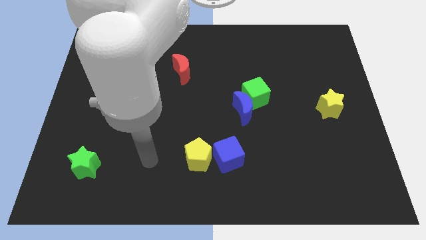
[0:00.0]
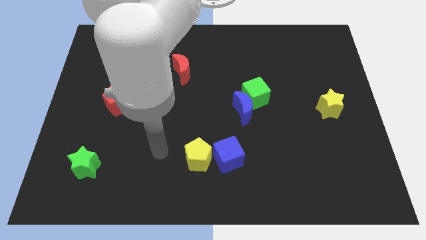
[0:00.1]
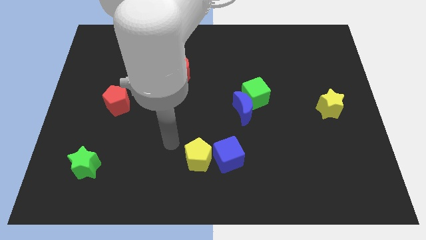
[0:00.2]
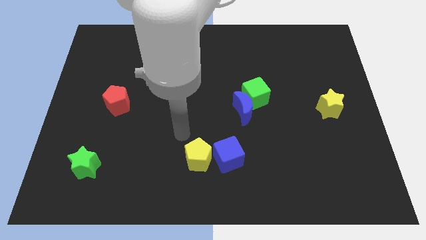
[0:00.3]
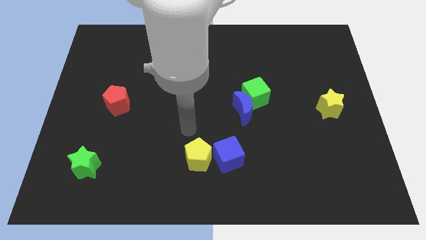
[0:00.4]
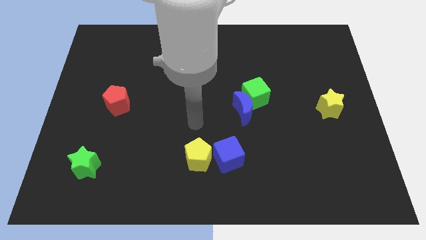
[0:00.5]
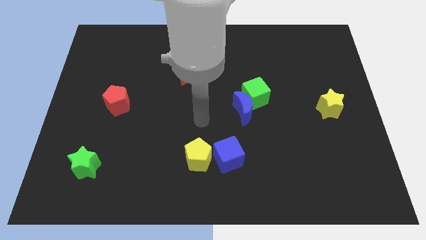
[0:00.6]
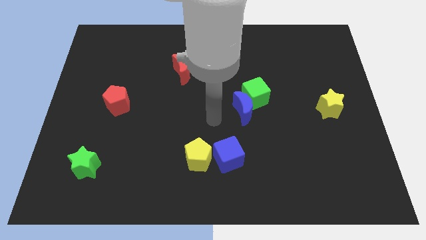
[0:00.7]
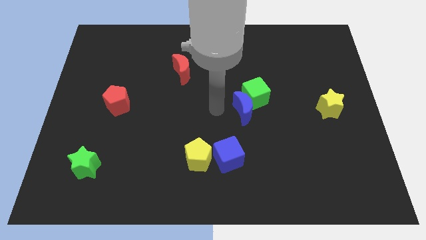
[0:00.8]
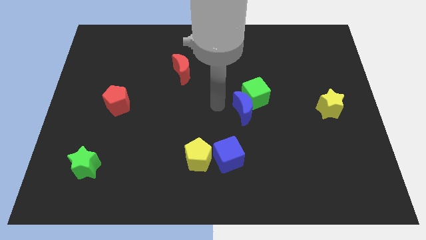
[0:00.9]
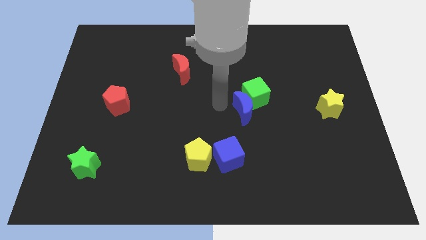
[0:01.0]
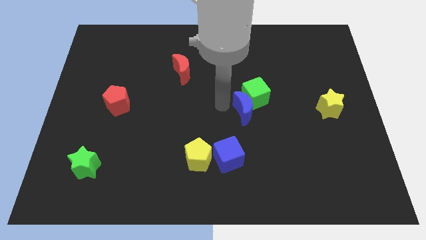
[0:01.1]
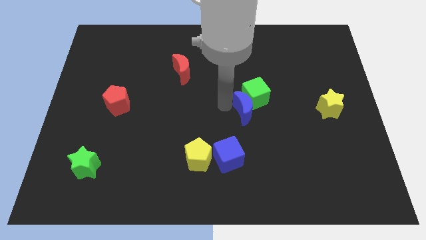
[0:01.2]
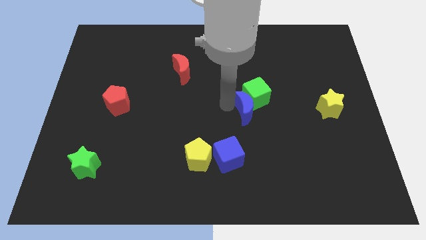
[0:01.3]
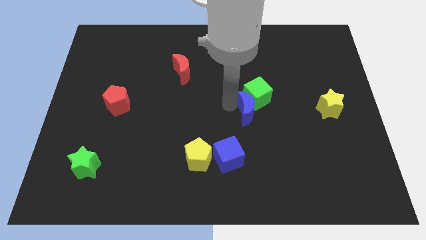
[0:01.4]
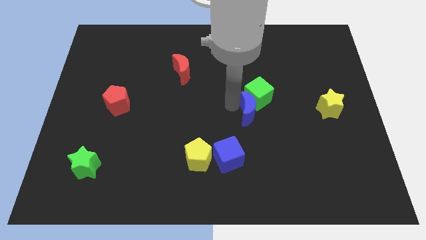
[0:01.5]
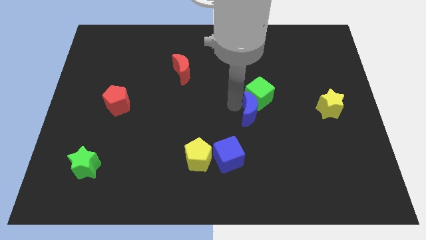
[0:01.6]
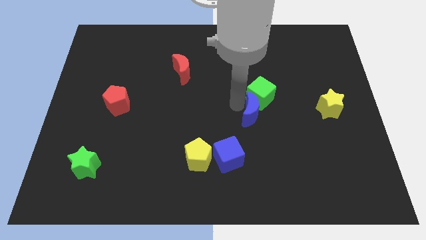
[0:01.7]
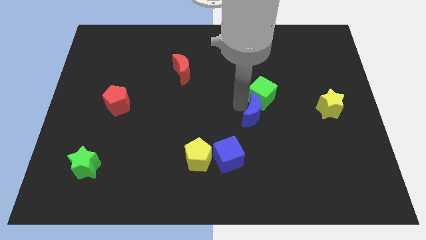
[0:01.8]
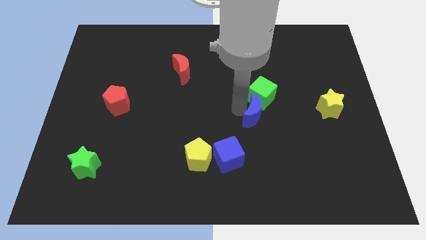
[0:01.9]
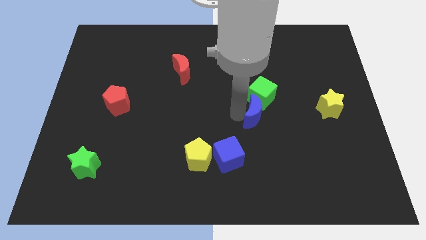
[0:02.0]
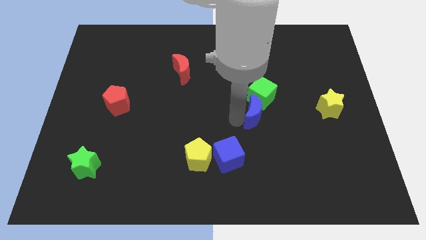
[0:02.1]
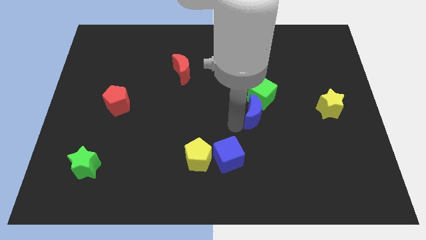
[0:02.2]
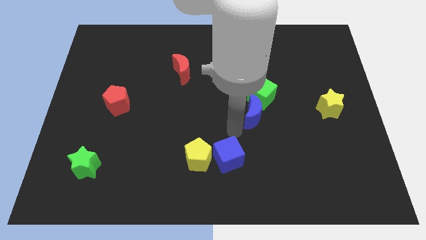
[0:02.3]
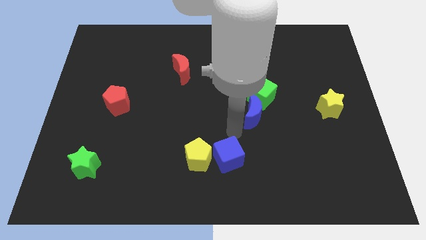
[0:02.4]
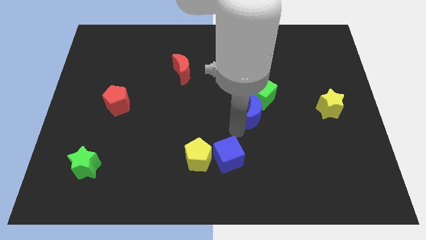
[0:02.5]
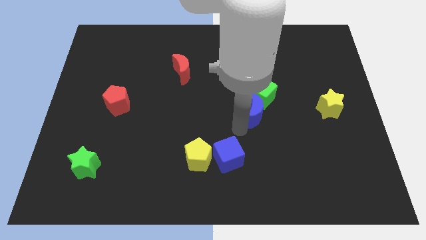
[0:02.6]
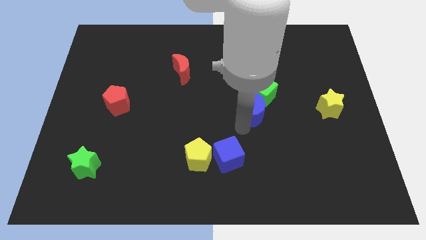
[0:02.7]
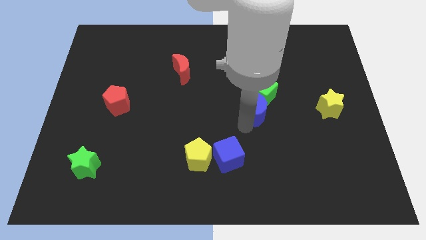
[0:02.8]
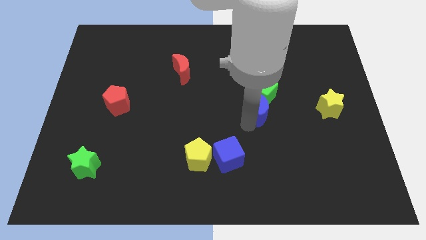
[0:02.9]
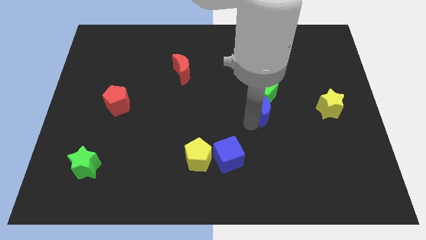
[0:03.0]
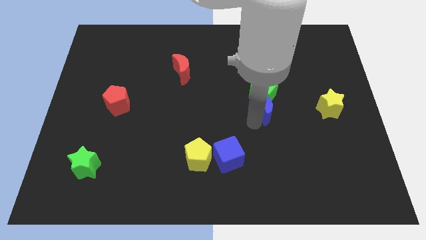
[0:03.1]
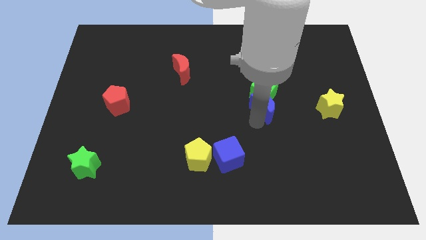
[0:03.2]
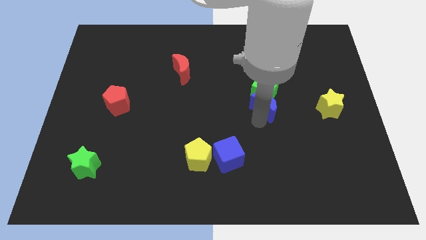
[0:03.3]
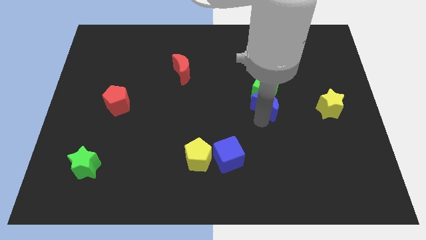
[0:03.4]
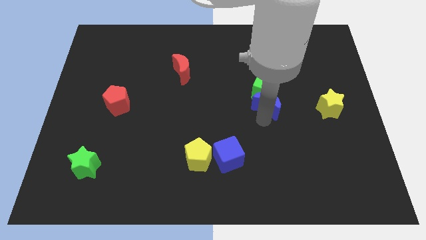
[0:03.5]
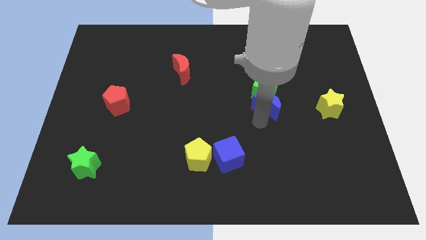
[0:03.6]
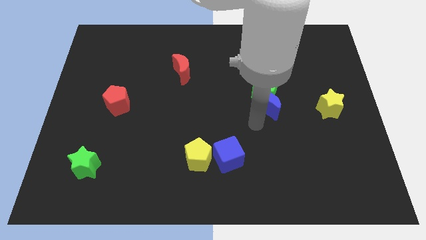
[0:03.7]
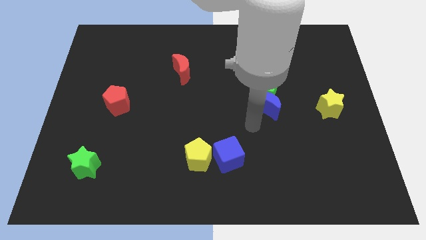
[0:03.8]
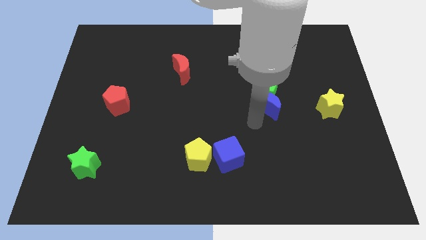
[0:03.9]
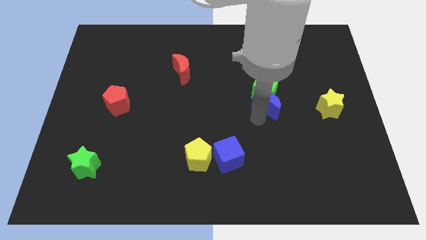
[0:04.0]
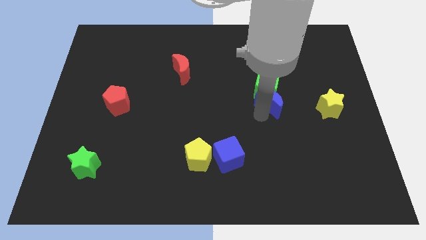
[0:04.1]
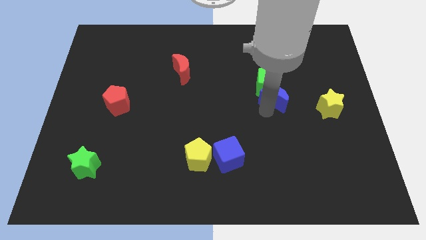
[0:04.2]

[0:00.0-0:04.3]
move the blue moon somewhat up and then right

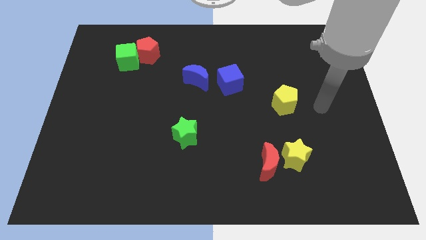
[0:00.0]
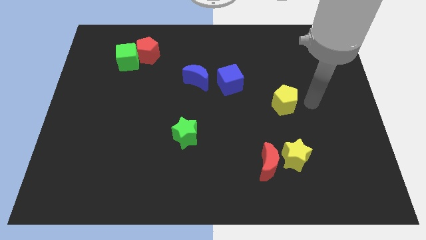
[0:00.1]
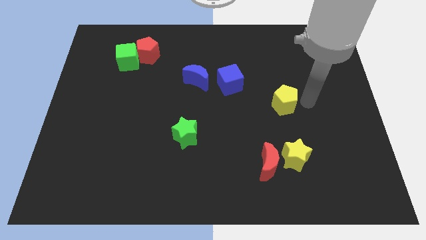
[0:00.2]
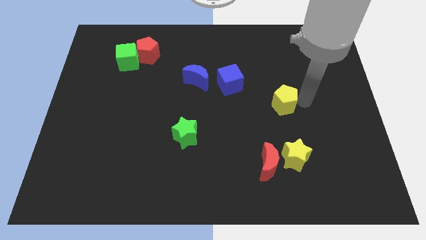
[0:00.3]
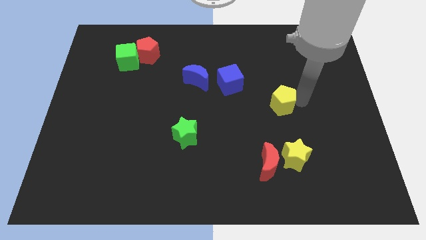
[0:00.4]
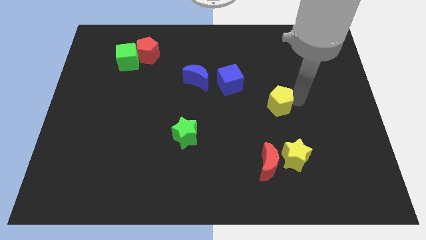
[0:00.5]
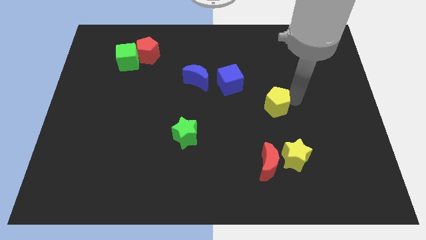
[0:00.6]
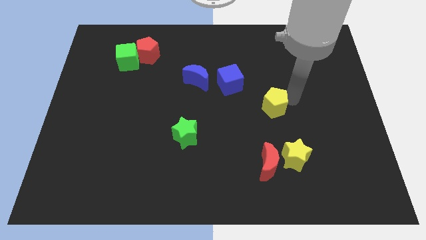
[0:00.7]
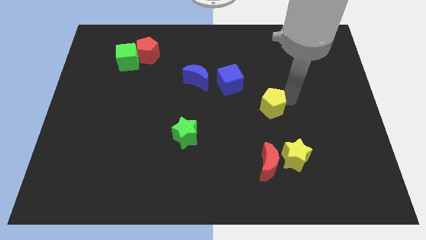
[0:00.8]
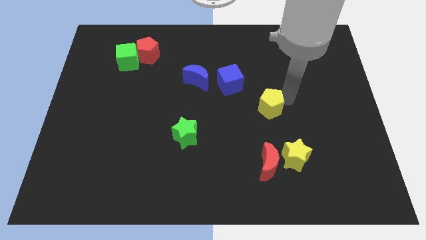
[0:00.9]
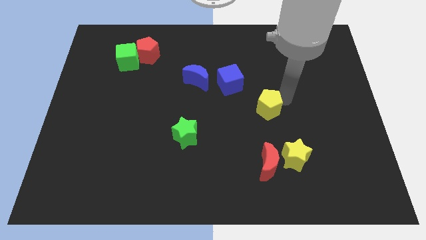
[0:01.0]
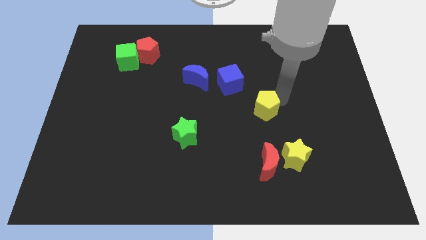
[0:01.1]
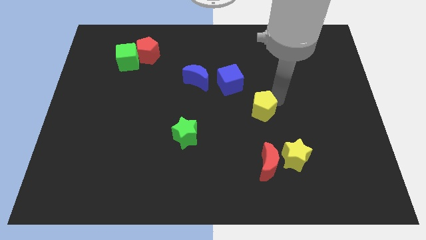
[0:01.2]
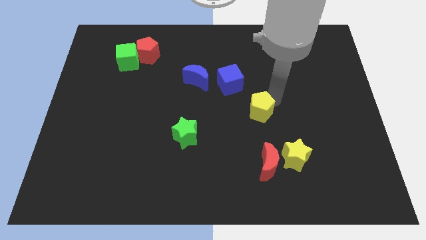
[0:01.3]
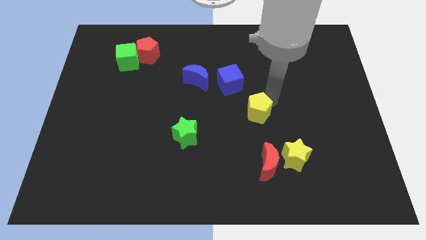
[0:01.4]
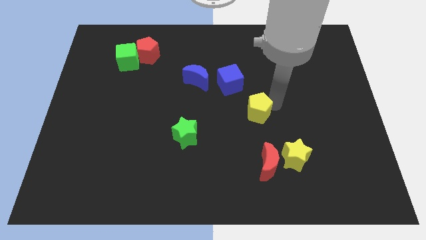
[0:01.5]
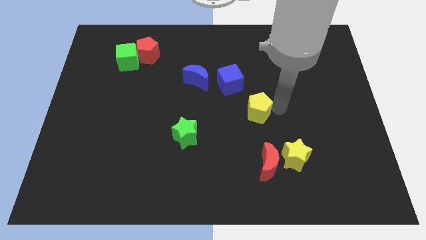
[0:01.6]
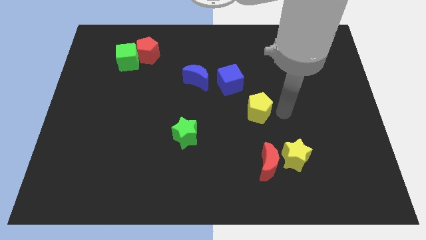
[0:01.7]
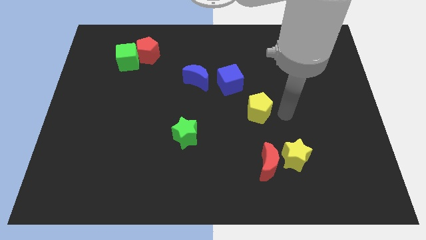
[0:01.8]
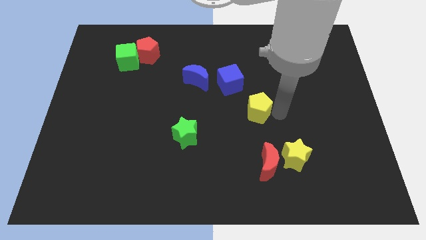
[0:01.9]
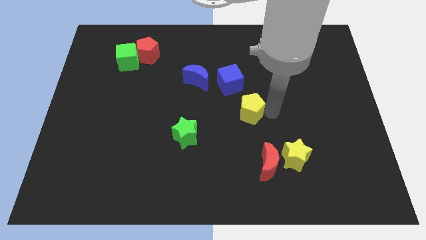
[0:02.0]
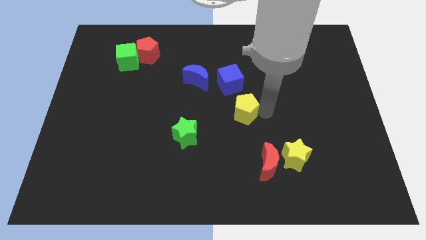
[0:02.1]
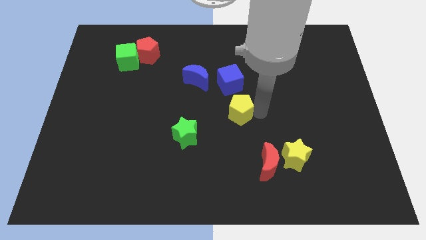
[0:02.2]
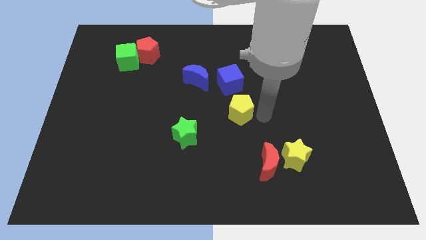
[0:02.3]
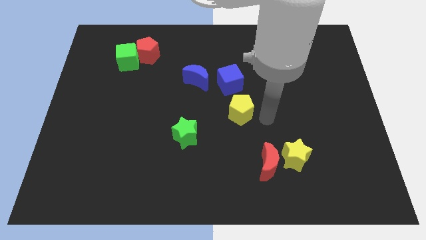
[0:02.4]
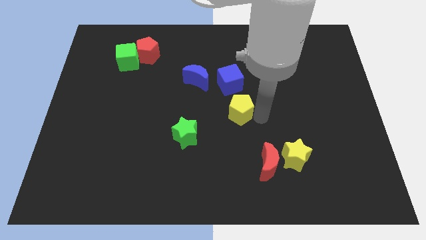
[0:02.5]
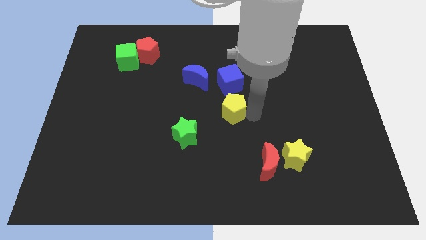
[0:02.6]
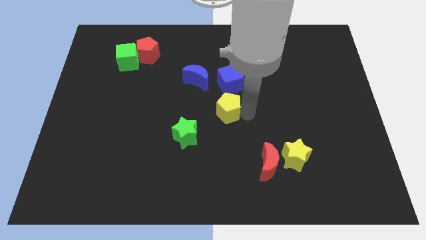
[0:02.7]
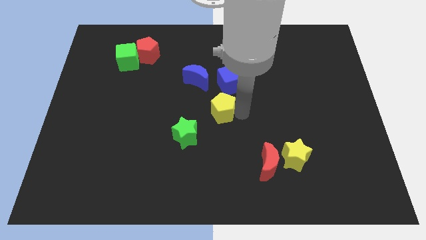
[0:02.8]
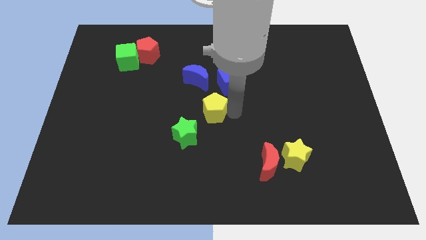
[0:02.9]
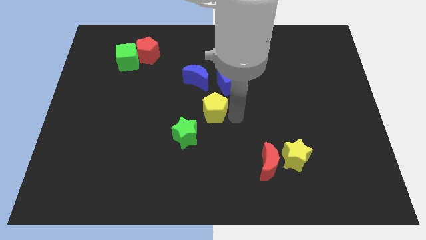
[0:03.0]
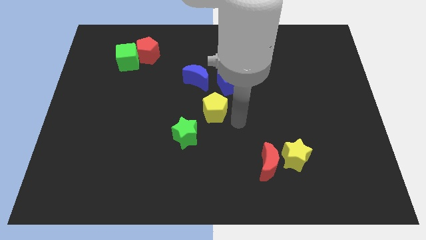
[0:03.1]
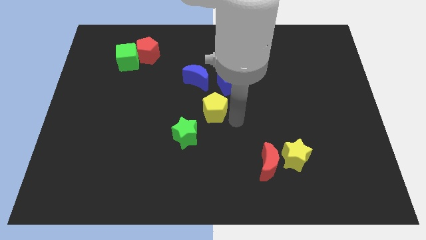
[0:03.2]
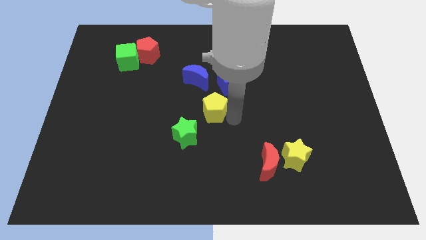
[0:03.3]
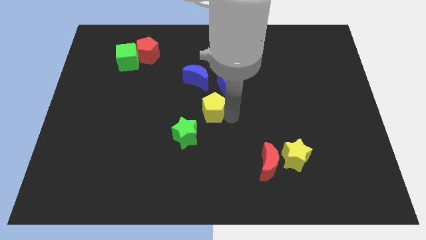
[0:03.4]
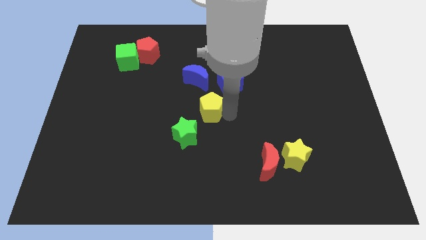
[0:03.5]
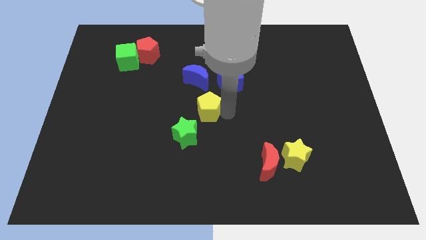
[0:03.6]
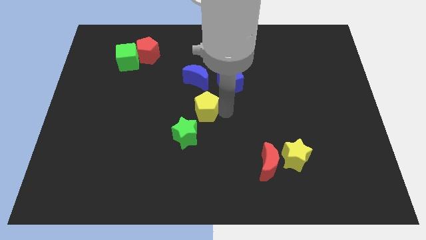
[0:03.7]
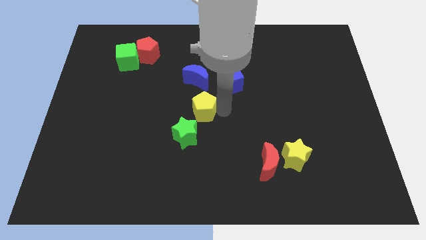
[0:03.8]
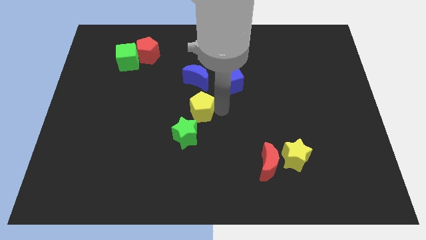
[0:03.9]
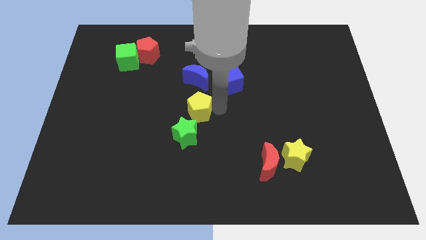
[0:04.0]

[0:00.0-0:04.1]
move the yellow pentagon left
